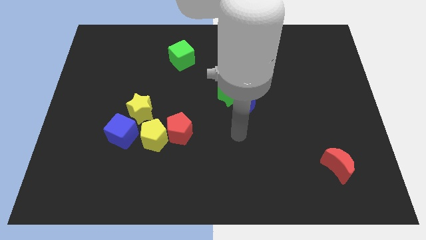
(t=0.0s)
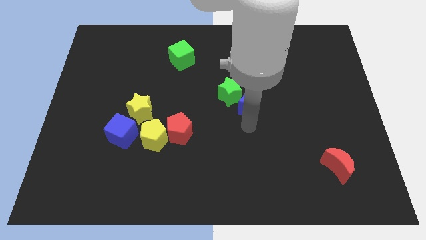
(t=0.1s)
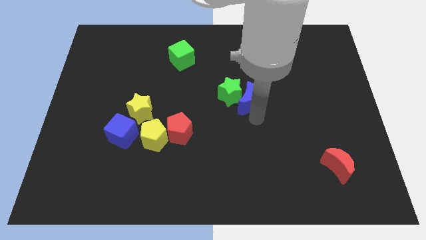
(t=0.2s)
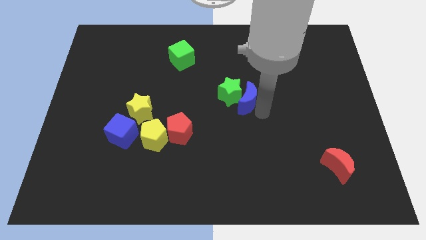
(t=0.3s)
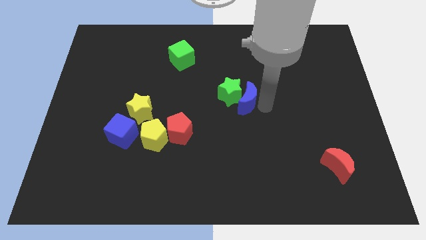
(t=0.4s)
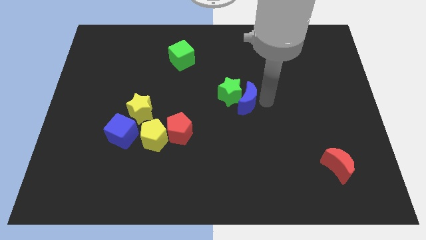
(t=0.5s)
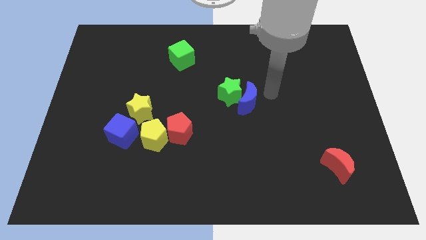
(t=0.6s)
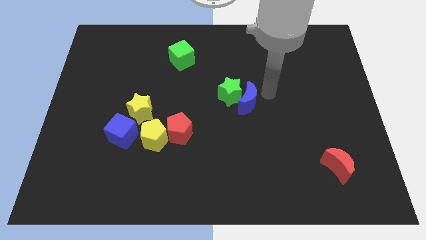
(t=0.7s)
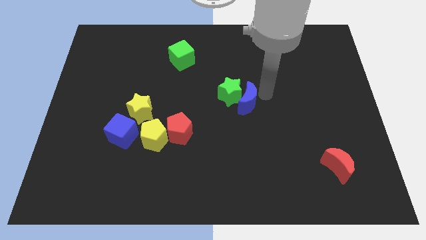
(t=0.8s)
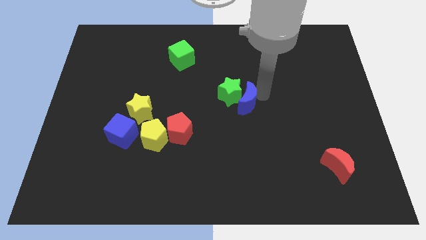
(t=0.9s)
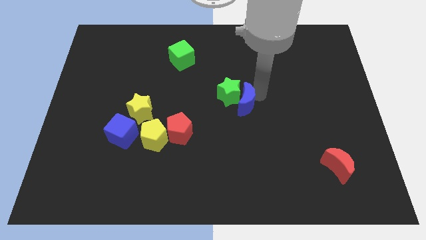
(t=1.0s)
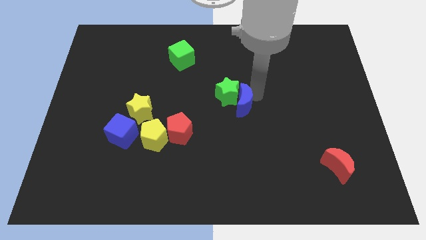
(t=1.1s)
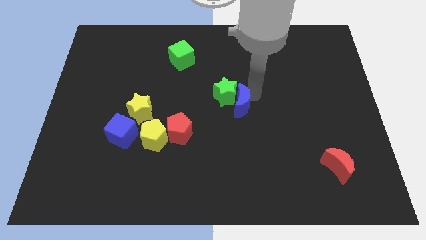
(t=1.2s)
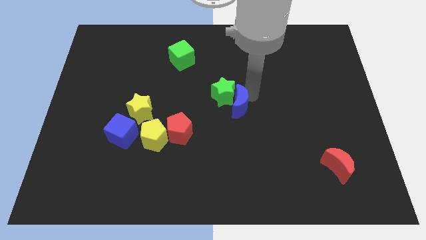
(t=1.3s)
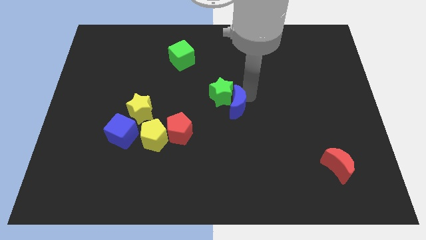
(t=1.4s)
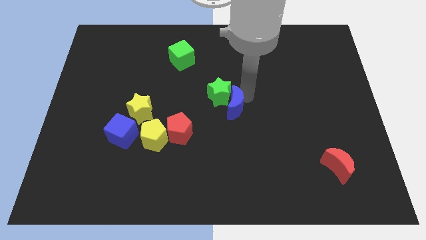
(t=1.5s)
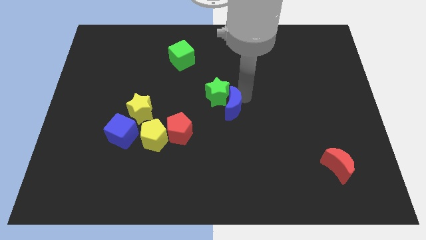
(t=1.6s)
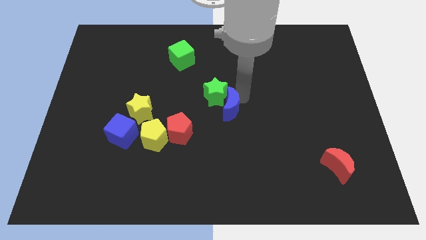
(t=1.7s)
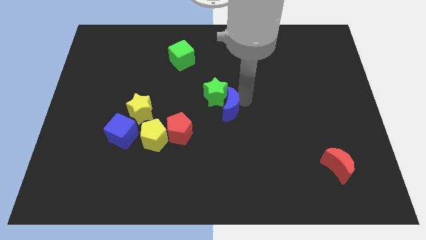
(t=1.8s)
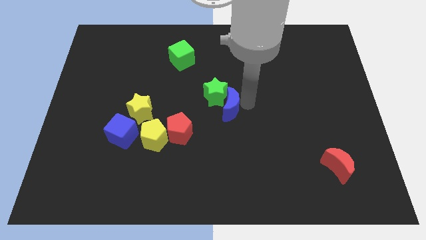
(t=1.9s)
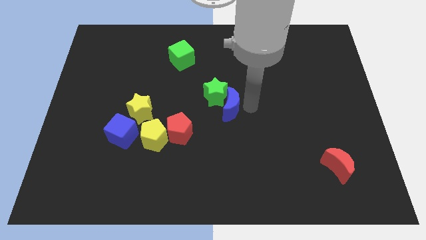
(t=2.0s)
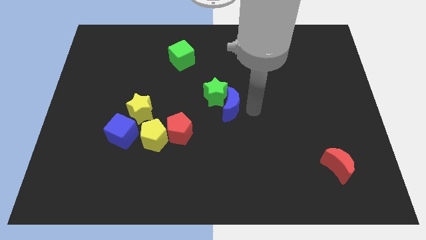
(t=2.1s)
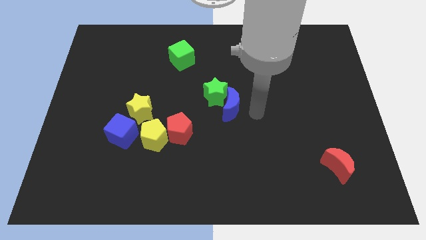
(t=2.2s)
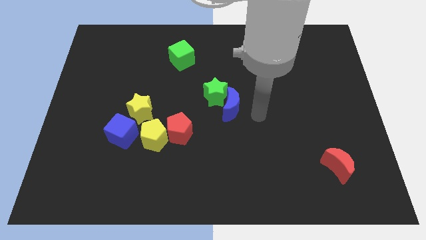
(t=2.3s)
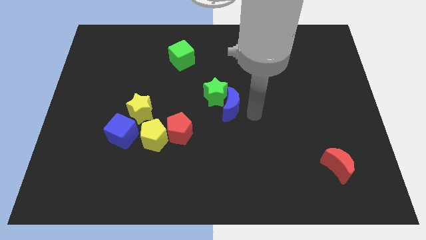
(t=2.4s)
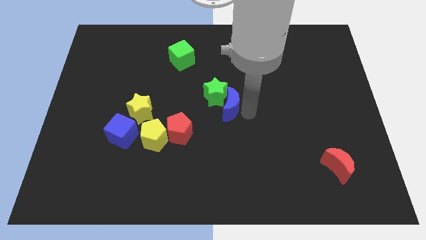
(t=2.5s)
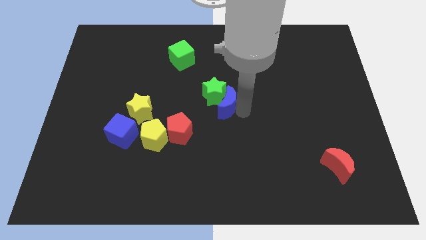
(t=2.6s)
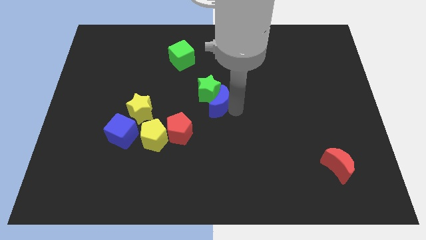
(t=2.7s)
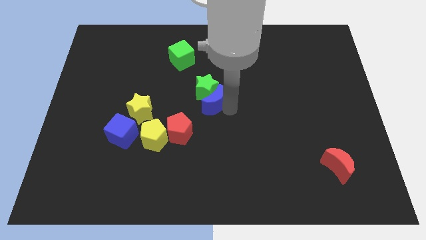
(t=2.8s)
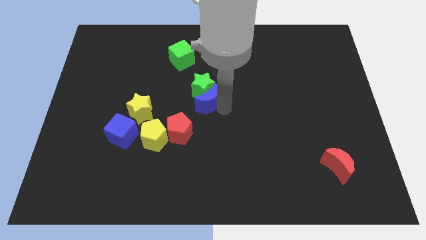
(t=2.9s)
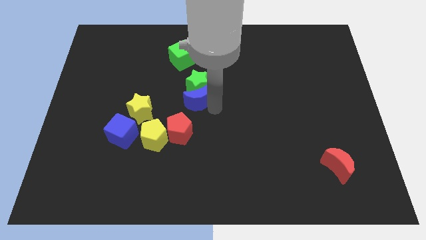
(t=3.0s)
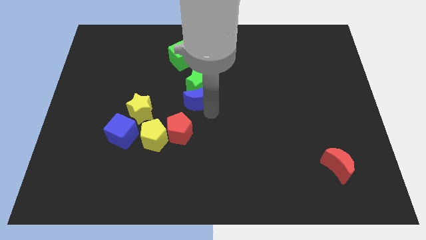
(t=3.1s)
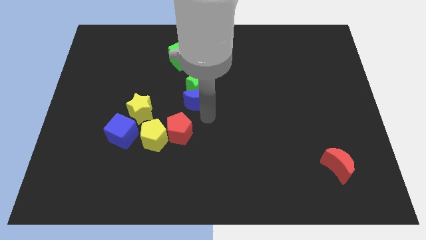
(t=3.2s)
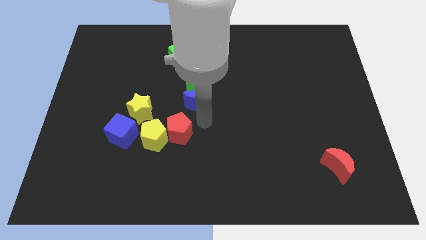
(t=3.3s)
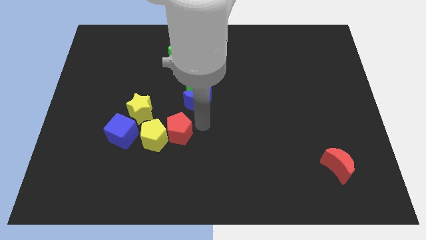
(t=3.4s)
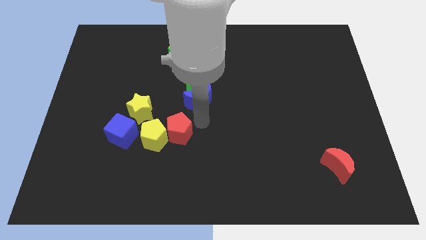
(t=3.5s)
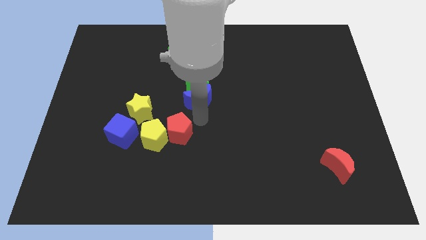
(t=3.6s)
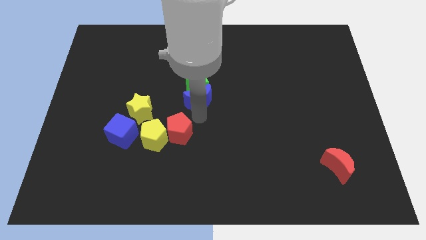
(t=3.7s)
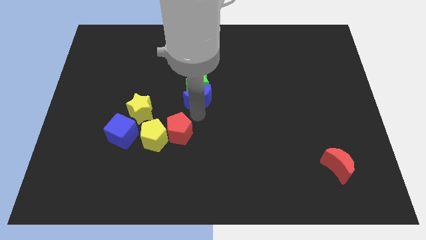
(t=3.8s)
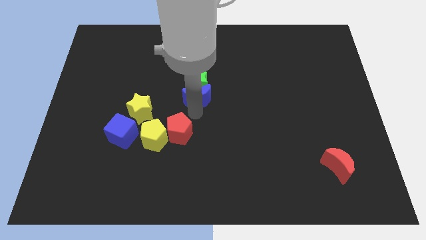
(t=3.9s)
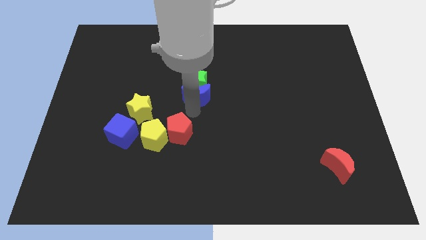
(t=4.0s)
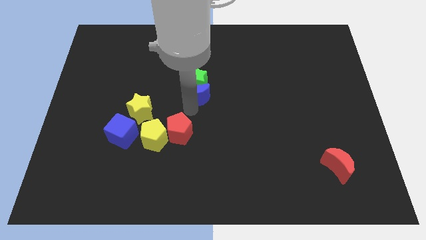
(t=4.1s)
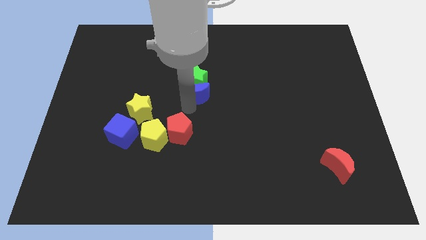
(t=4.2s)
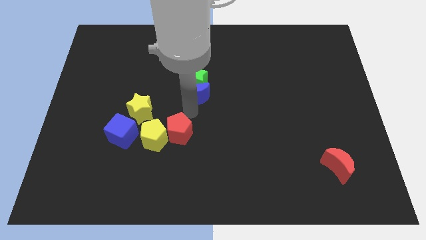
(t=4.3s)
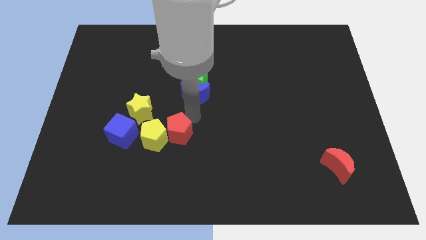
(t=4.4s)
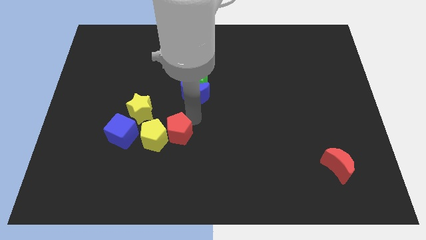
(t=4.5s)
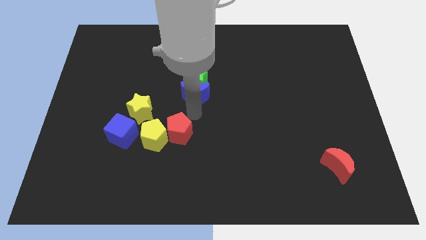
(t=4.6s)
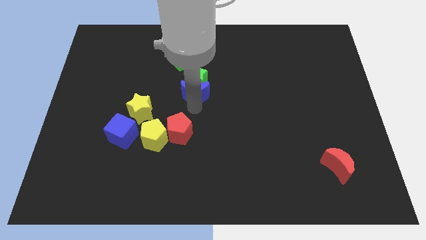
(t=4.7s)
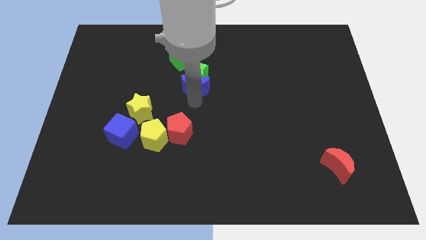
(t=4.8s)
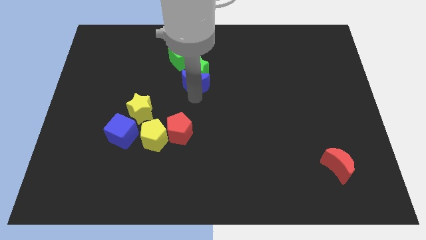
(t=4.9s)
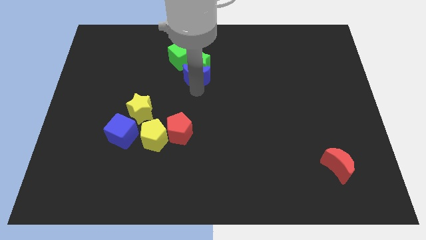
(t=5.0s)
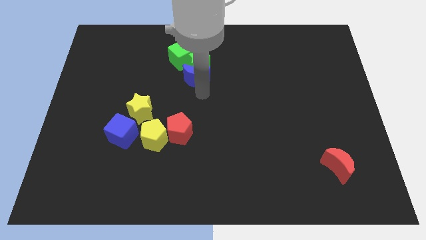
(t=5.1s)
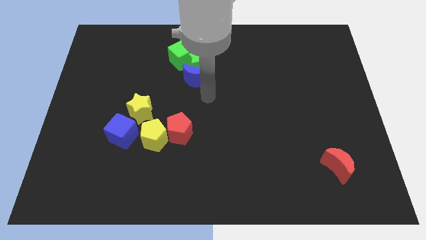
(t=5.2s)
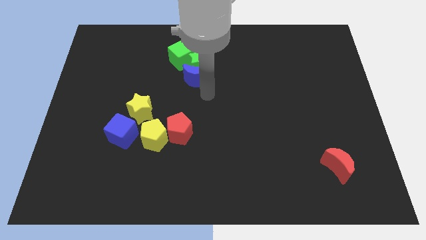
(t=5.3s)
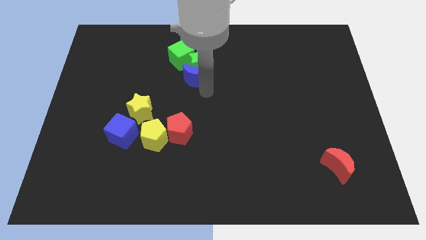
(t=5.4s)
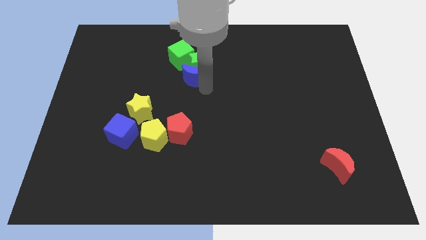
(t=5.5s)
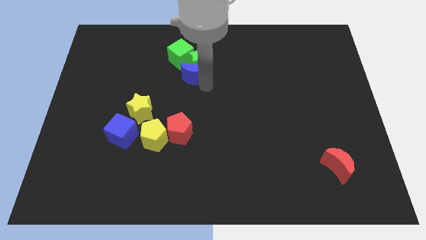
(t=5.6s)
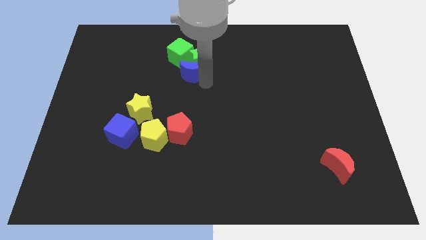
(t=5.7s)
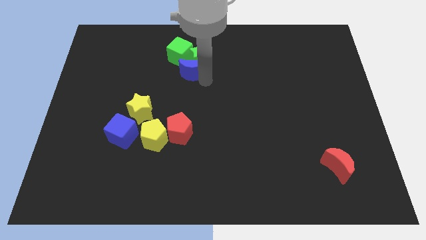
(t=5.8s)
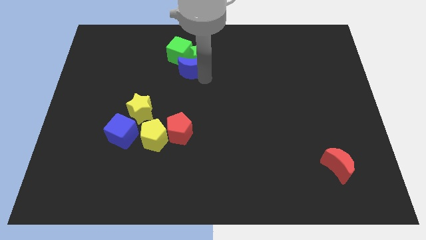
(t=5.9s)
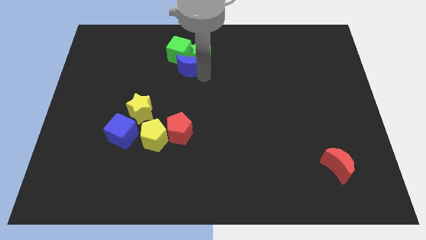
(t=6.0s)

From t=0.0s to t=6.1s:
push the blue moon next to the green cube

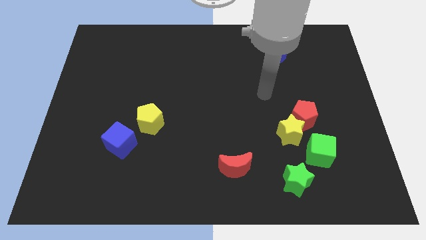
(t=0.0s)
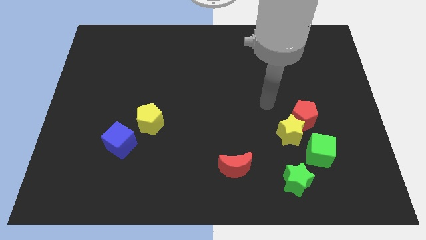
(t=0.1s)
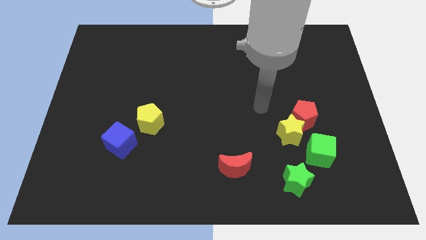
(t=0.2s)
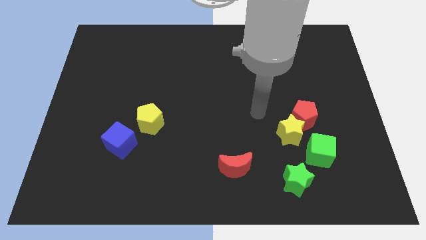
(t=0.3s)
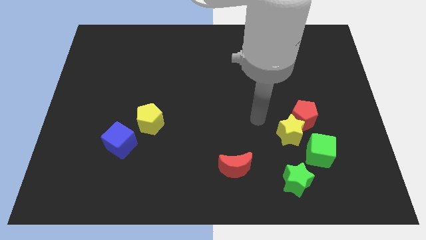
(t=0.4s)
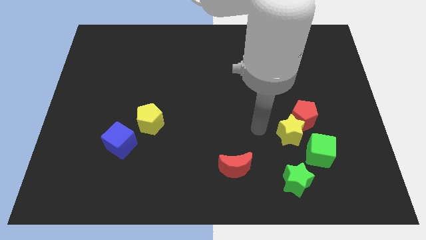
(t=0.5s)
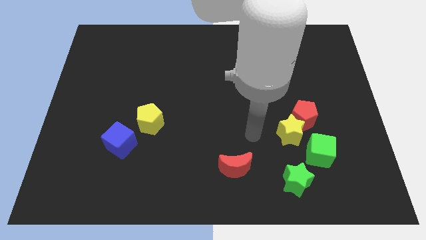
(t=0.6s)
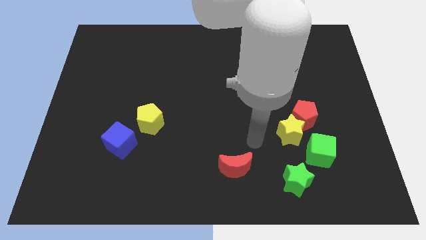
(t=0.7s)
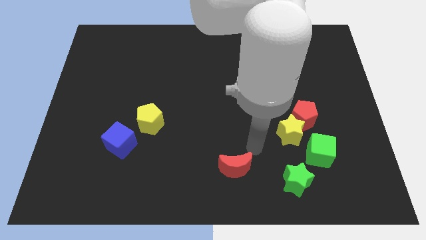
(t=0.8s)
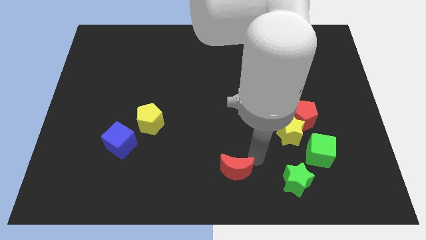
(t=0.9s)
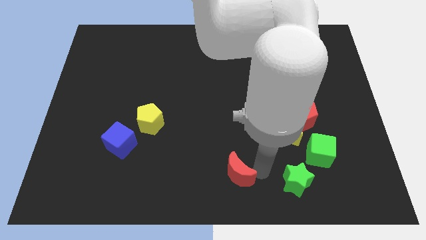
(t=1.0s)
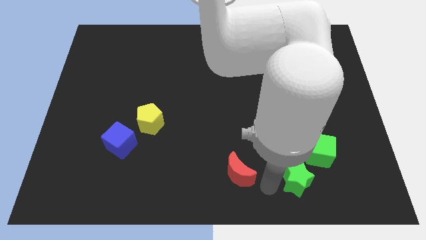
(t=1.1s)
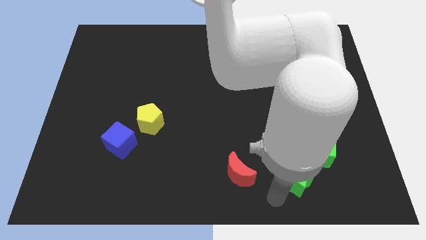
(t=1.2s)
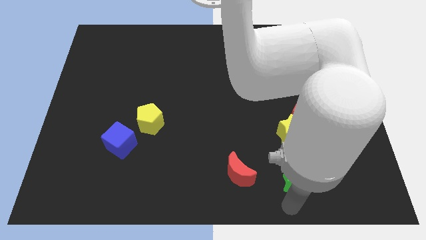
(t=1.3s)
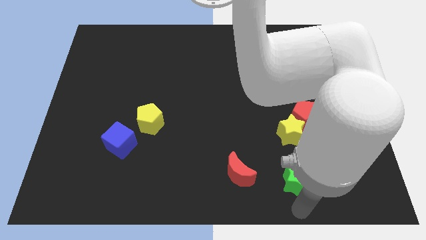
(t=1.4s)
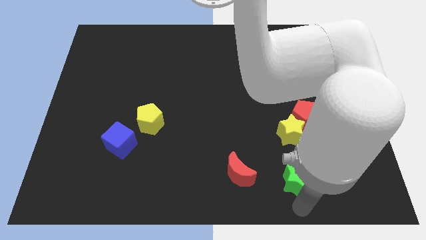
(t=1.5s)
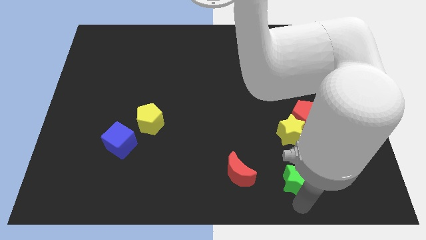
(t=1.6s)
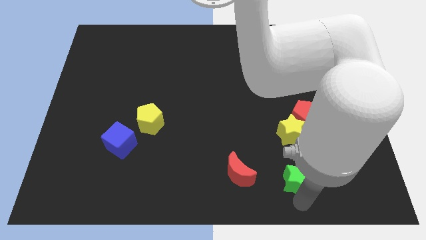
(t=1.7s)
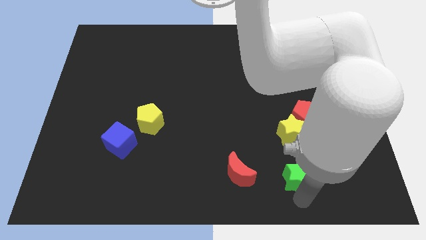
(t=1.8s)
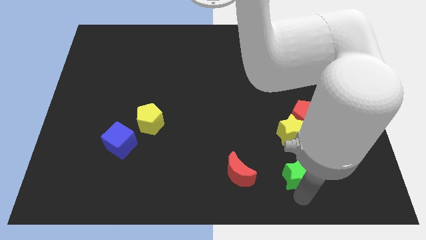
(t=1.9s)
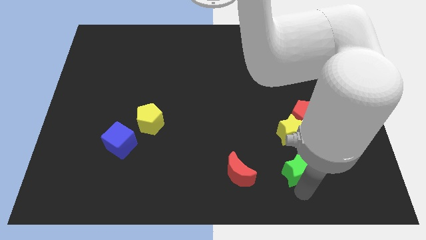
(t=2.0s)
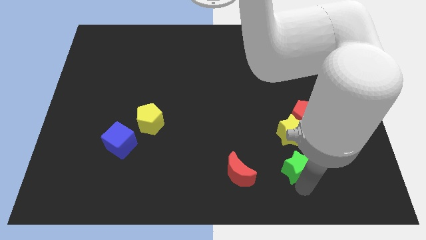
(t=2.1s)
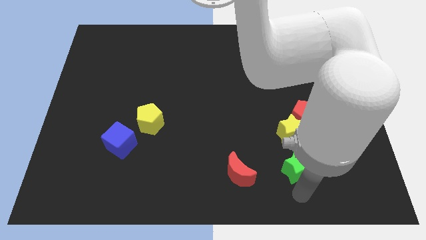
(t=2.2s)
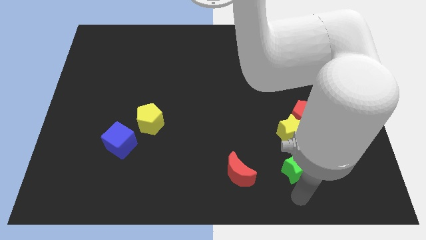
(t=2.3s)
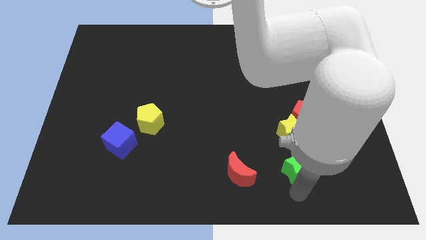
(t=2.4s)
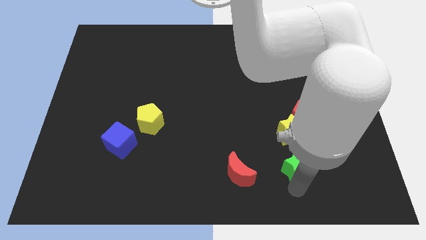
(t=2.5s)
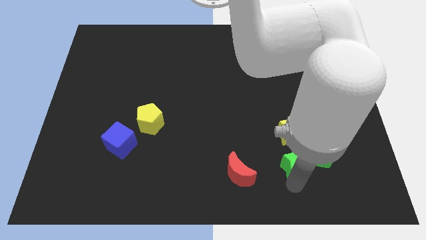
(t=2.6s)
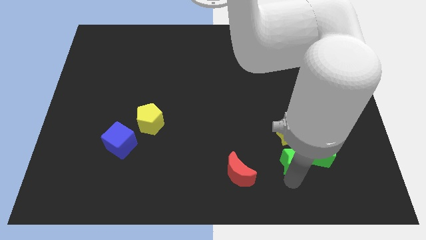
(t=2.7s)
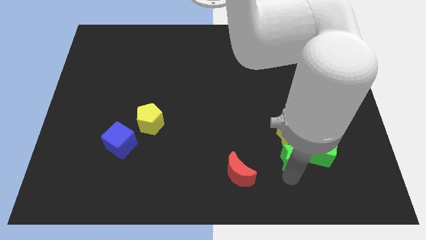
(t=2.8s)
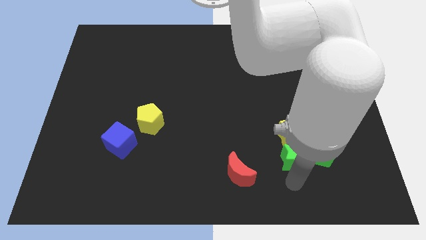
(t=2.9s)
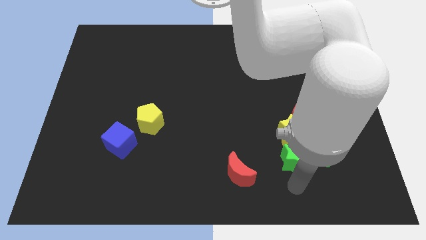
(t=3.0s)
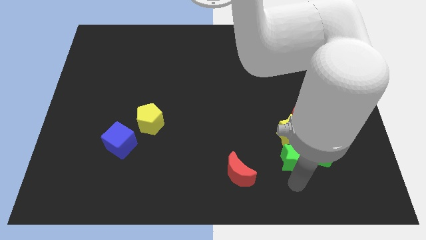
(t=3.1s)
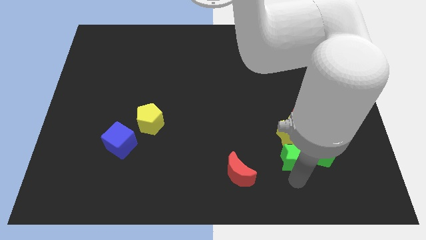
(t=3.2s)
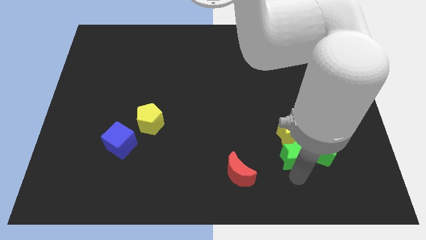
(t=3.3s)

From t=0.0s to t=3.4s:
move the green star to the yellow star
